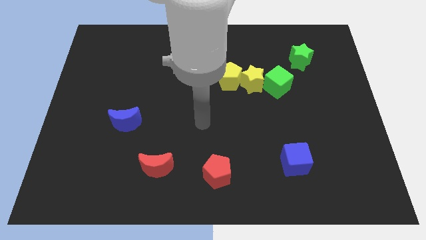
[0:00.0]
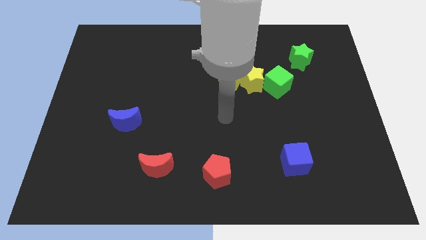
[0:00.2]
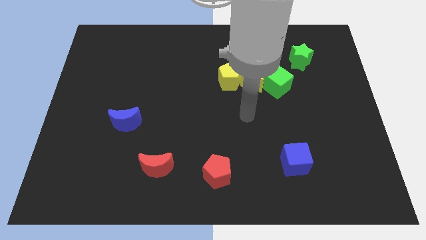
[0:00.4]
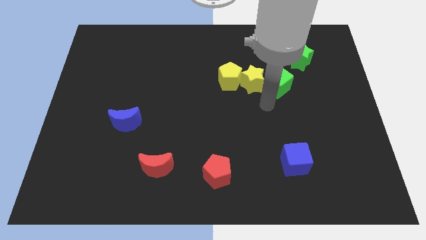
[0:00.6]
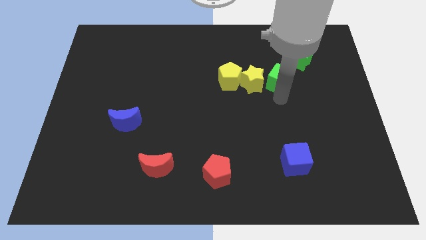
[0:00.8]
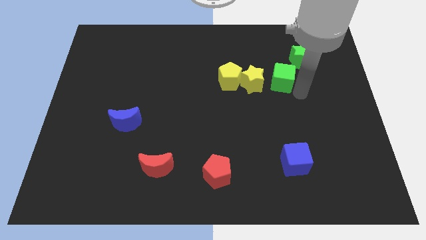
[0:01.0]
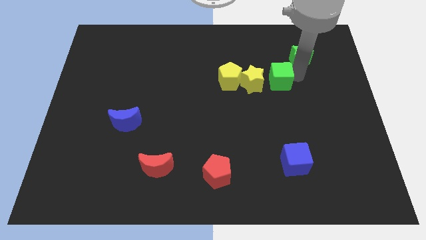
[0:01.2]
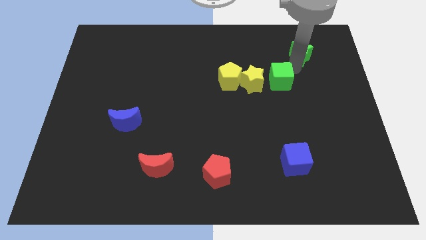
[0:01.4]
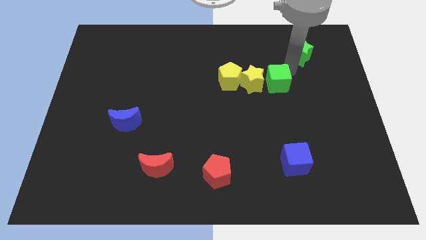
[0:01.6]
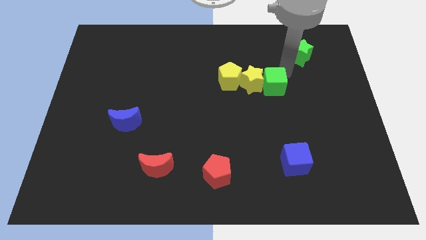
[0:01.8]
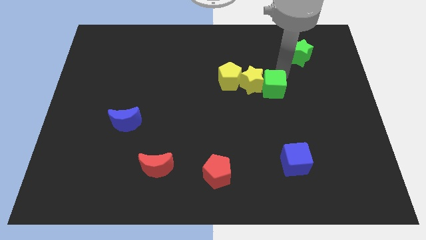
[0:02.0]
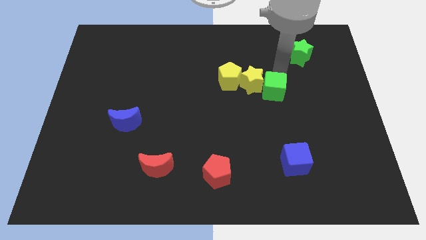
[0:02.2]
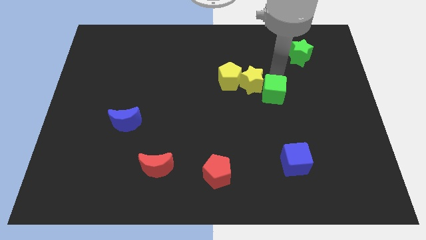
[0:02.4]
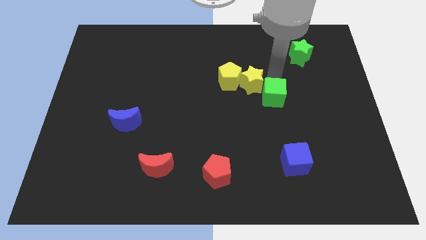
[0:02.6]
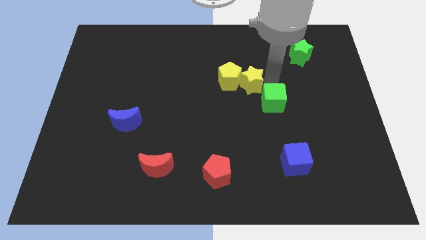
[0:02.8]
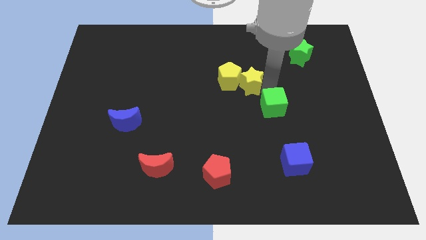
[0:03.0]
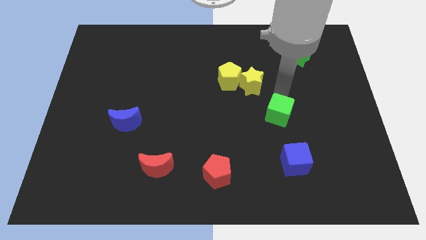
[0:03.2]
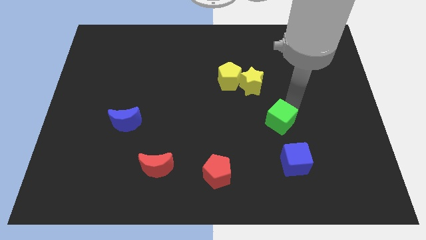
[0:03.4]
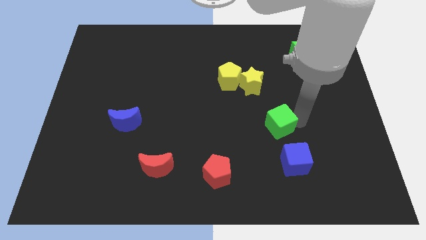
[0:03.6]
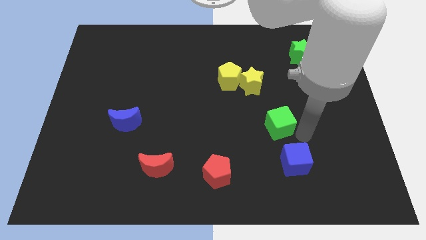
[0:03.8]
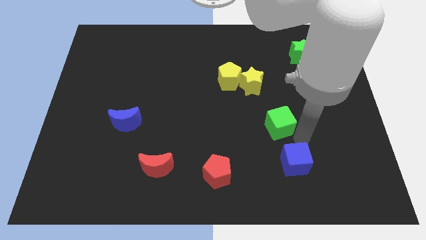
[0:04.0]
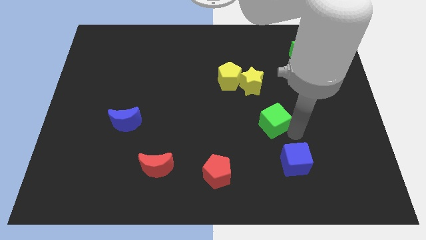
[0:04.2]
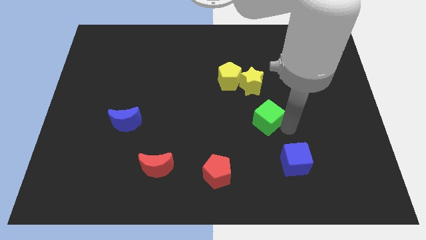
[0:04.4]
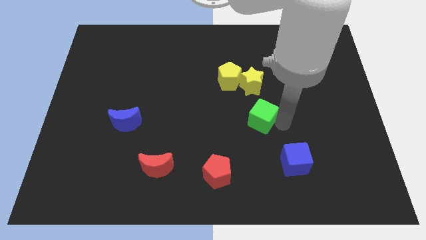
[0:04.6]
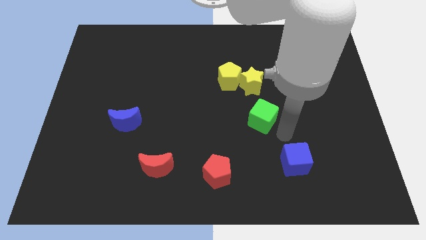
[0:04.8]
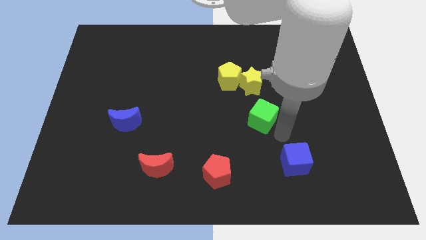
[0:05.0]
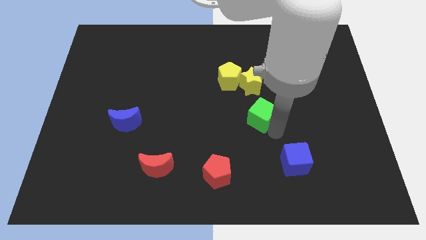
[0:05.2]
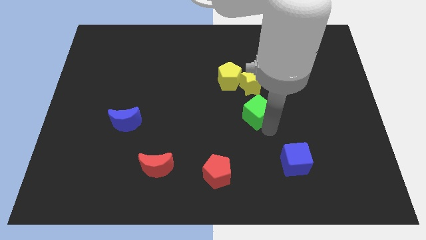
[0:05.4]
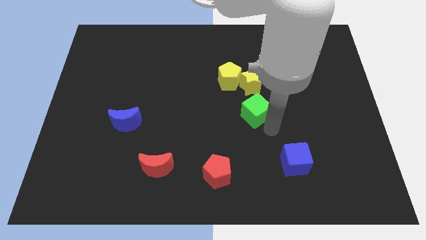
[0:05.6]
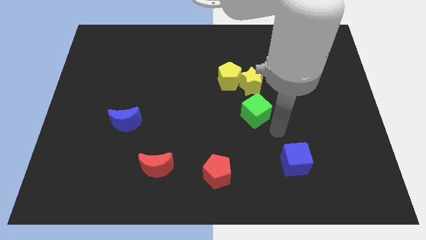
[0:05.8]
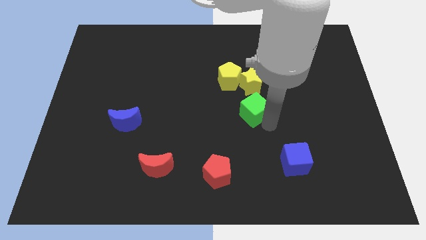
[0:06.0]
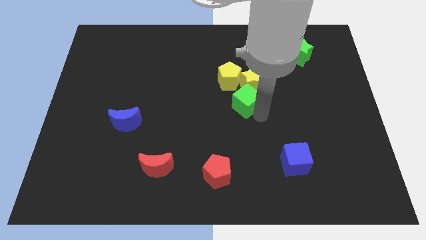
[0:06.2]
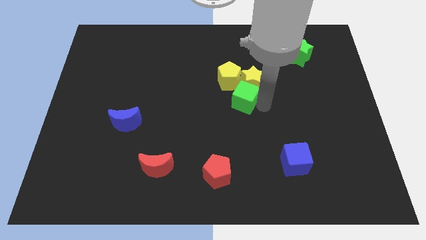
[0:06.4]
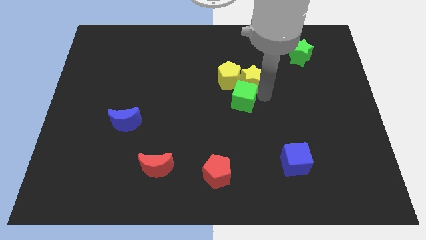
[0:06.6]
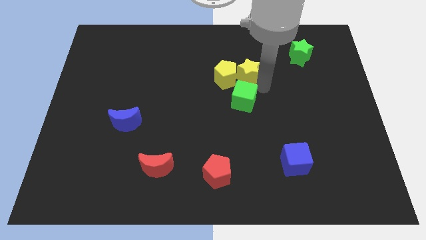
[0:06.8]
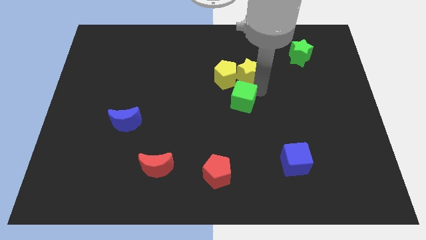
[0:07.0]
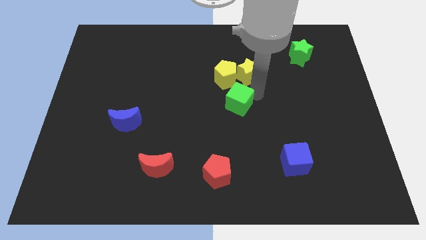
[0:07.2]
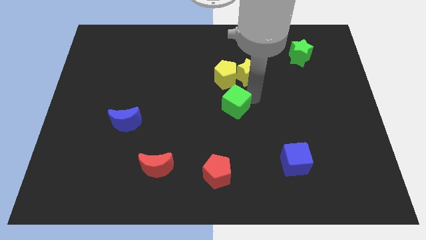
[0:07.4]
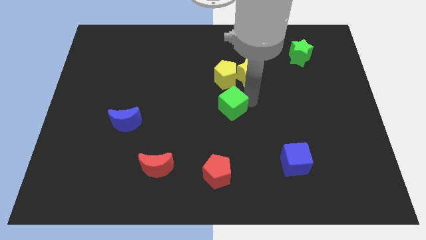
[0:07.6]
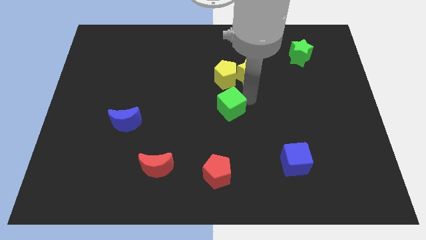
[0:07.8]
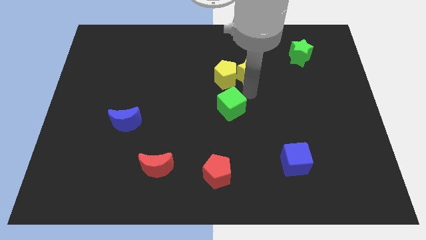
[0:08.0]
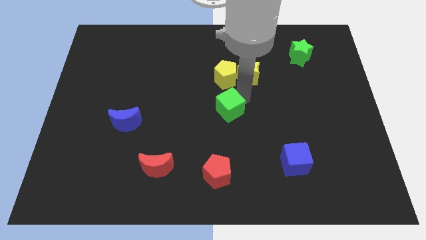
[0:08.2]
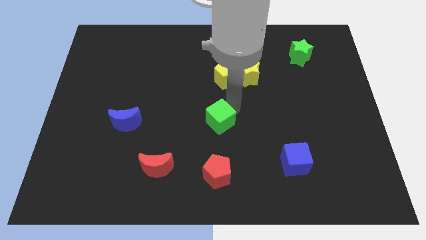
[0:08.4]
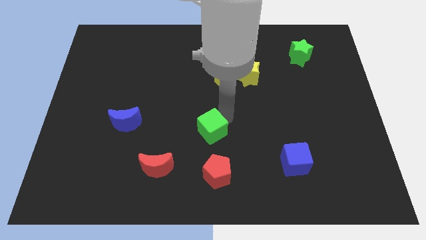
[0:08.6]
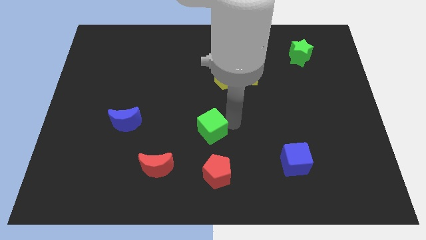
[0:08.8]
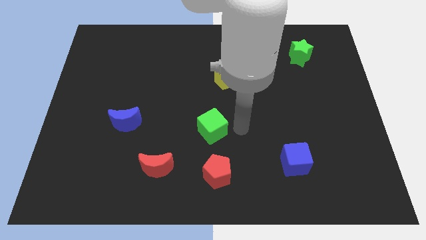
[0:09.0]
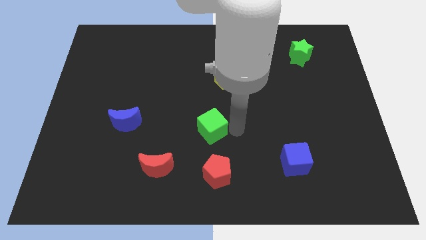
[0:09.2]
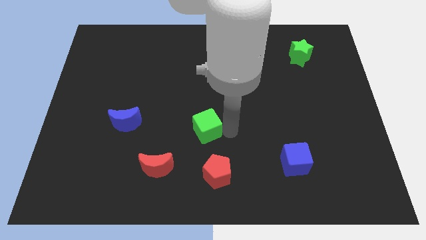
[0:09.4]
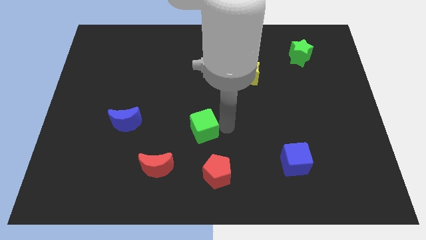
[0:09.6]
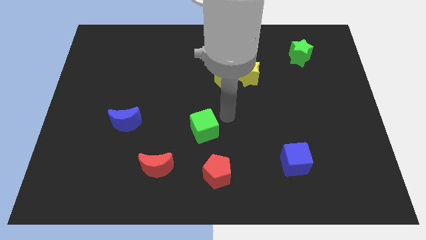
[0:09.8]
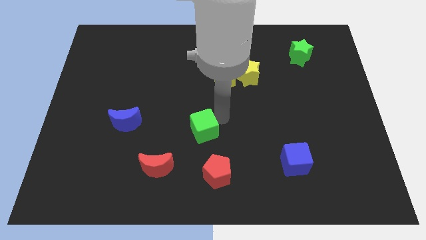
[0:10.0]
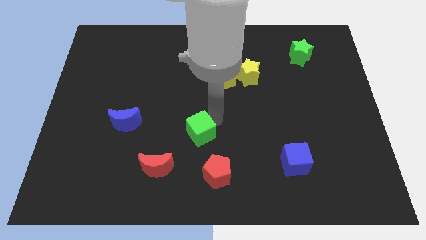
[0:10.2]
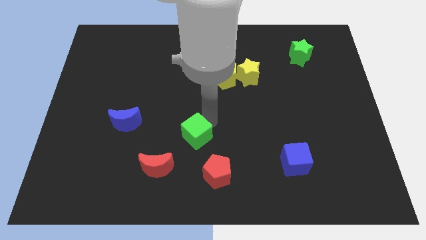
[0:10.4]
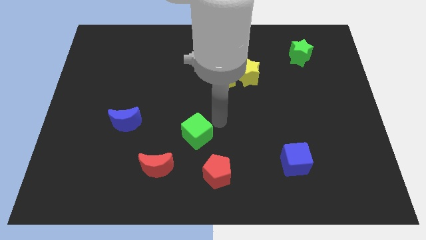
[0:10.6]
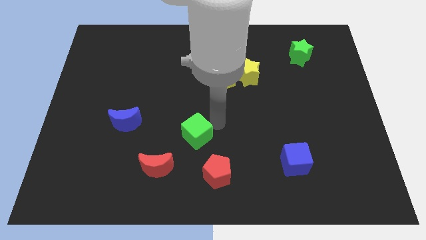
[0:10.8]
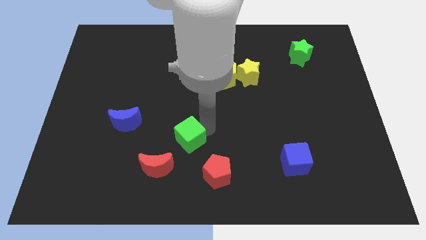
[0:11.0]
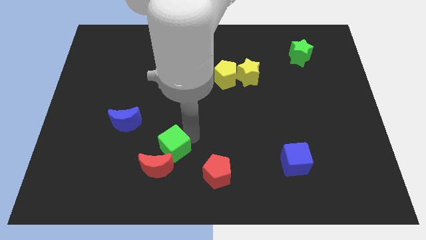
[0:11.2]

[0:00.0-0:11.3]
put the green cube next to the red moon

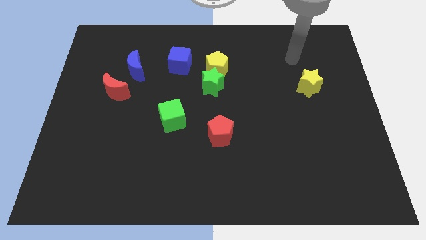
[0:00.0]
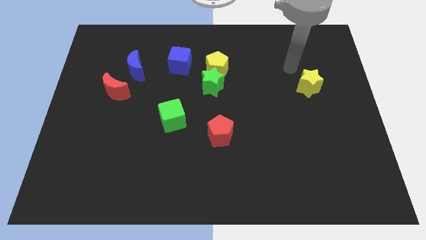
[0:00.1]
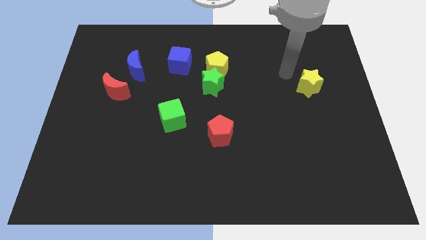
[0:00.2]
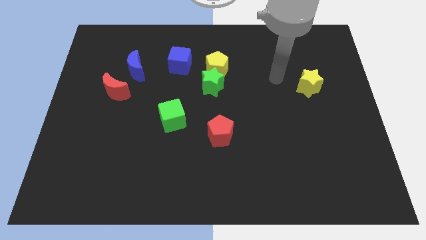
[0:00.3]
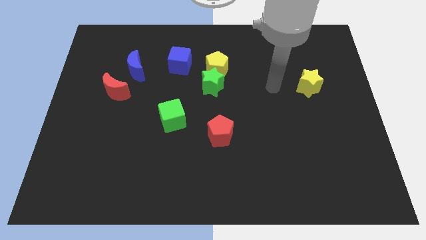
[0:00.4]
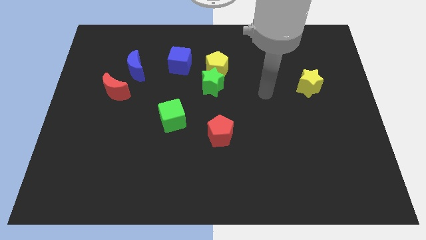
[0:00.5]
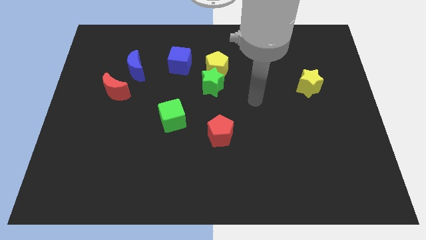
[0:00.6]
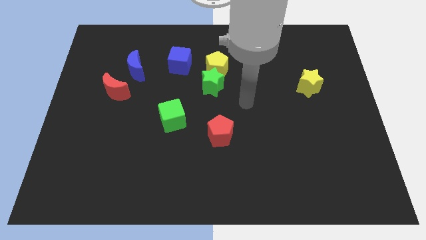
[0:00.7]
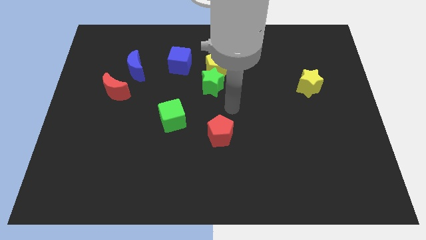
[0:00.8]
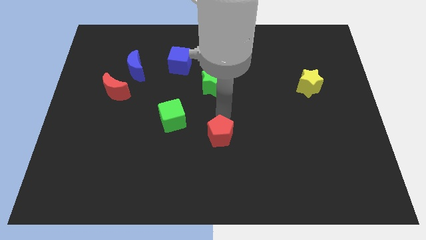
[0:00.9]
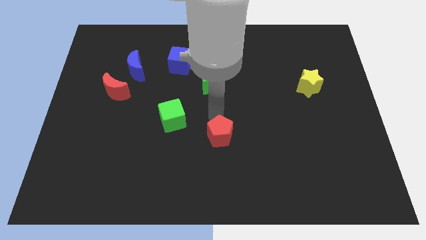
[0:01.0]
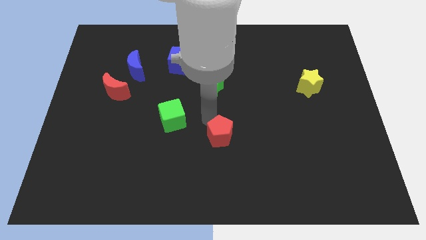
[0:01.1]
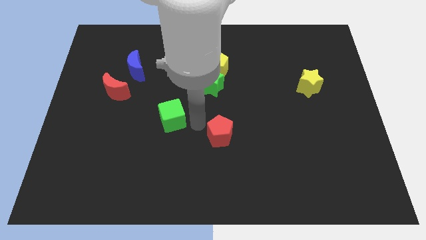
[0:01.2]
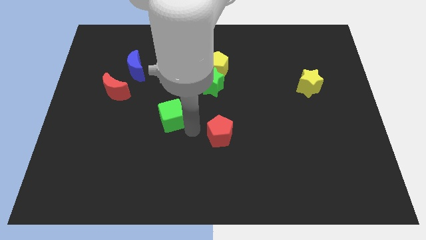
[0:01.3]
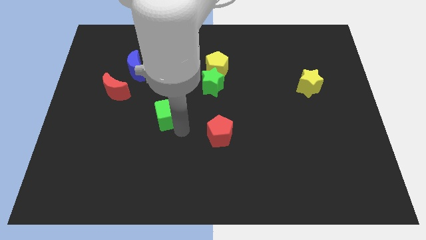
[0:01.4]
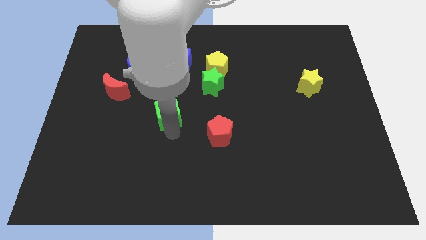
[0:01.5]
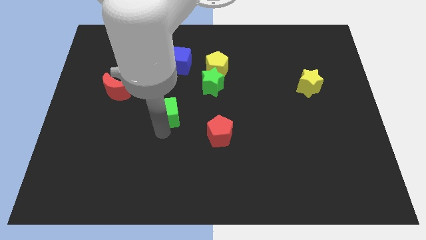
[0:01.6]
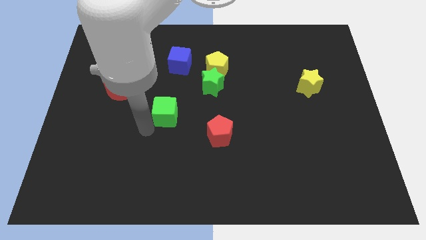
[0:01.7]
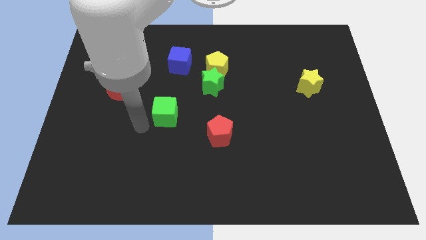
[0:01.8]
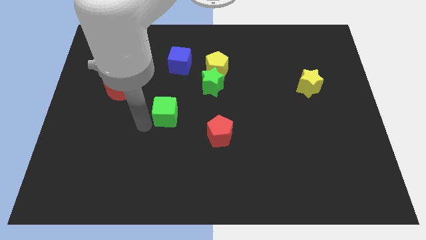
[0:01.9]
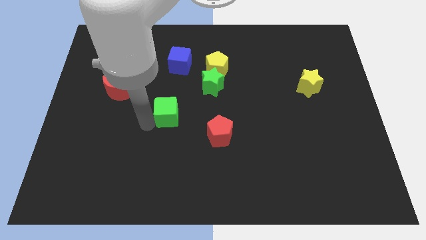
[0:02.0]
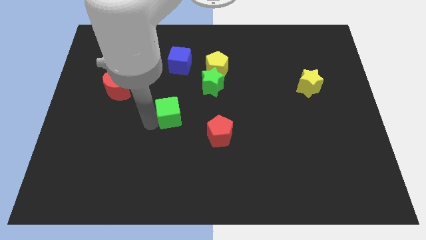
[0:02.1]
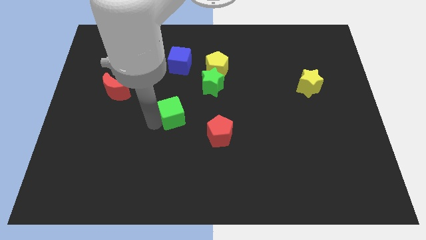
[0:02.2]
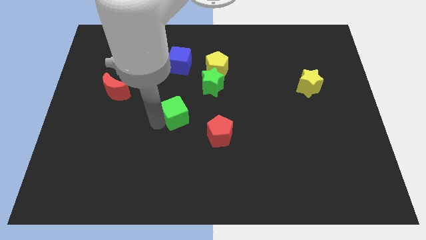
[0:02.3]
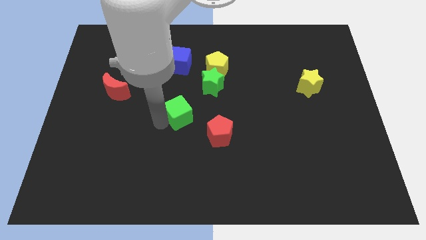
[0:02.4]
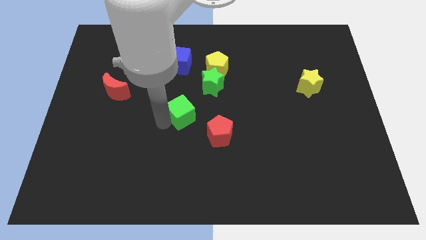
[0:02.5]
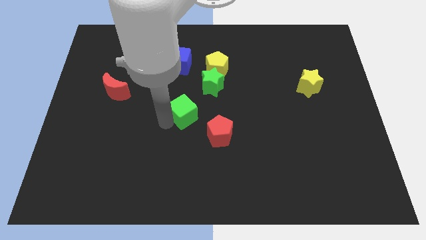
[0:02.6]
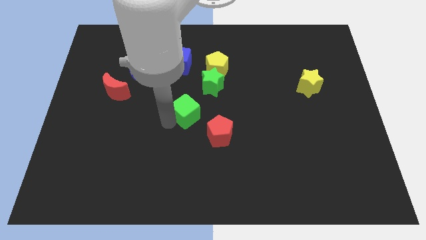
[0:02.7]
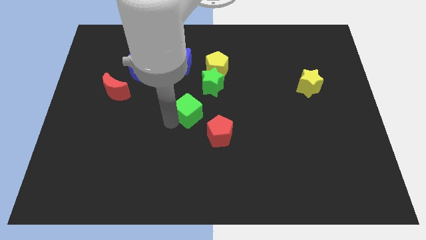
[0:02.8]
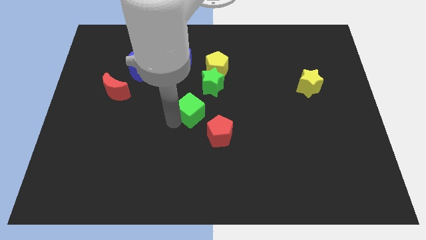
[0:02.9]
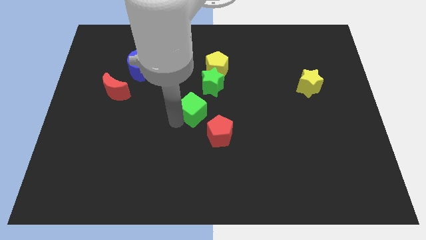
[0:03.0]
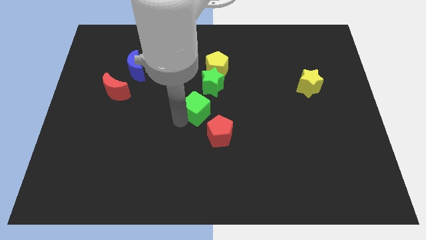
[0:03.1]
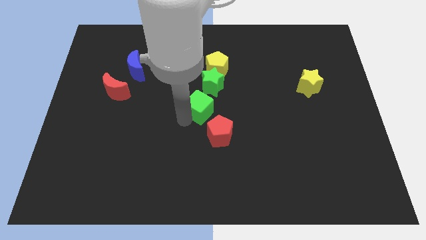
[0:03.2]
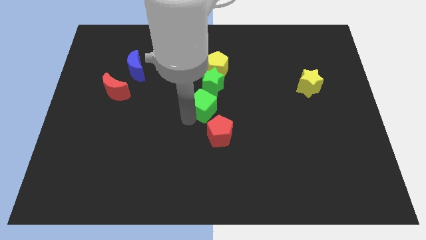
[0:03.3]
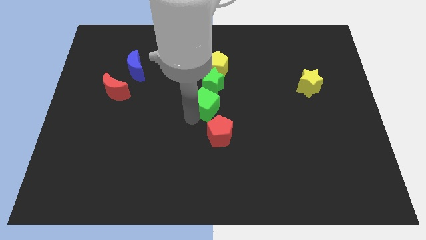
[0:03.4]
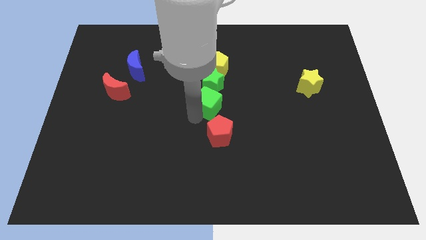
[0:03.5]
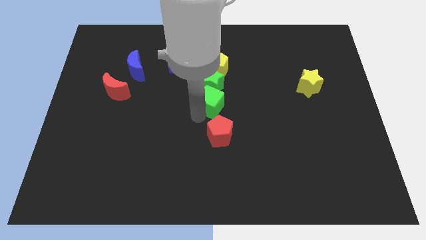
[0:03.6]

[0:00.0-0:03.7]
move the green cube towards the green star
